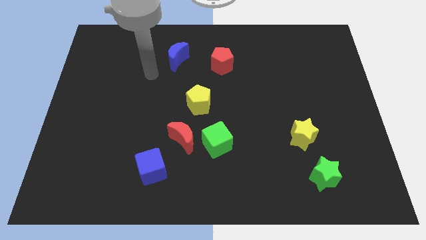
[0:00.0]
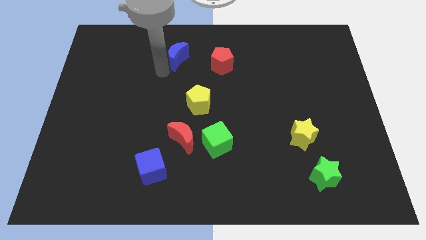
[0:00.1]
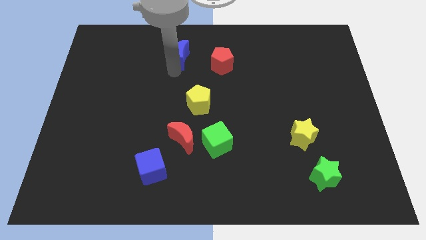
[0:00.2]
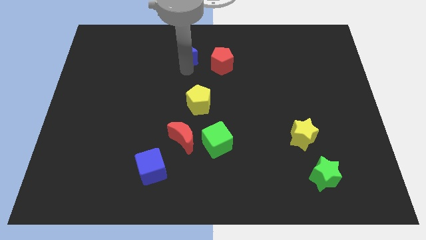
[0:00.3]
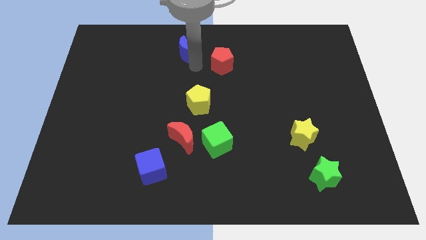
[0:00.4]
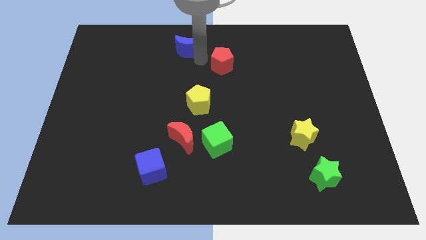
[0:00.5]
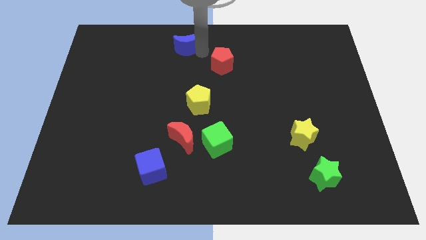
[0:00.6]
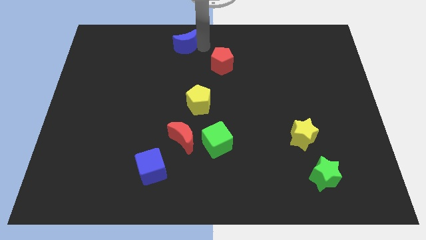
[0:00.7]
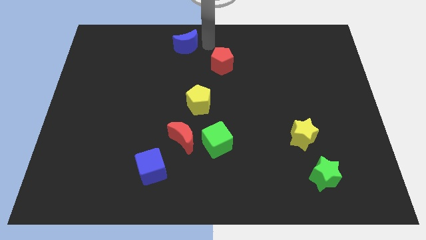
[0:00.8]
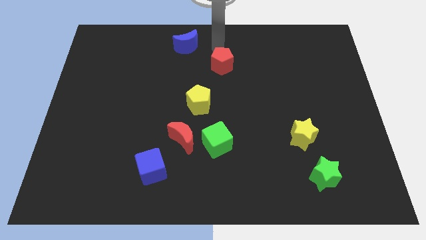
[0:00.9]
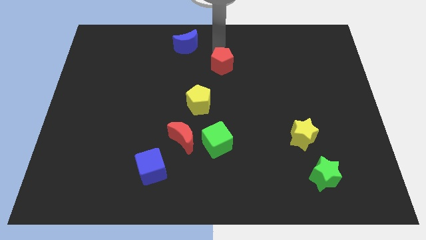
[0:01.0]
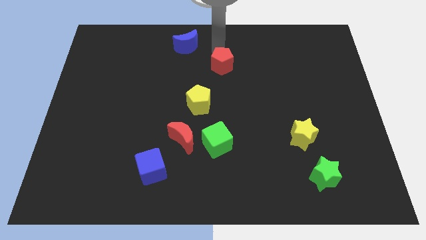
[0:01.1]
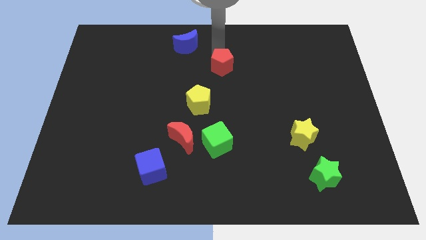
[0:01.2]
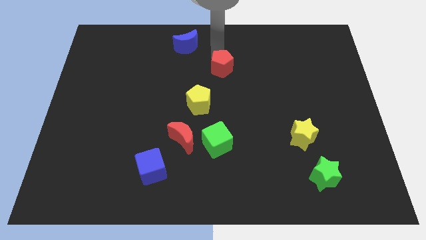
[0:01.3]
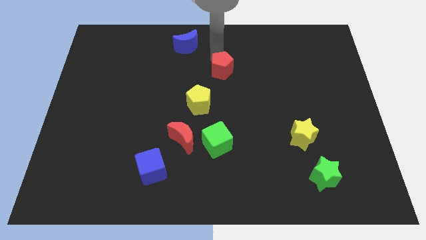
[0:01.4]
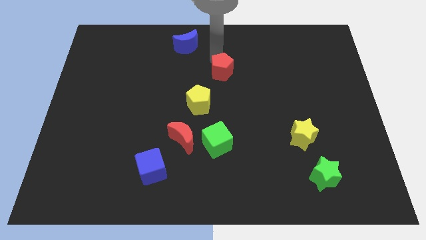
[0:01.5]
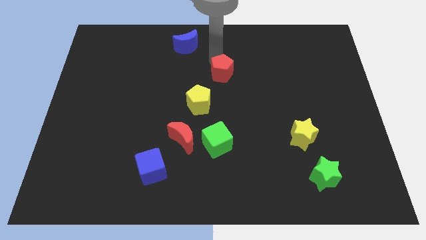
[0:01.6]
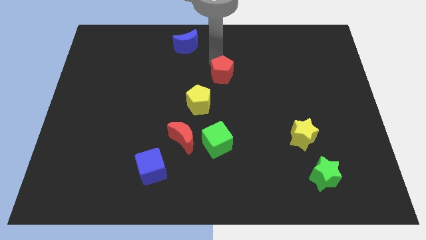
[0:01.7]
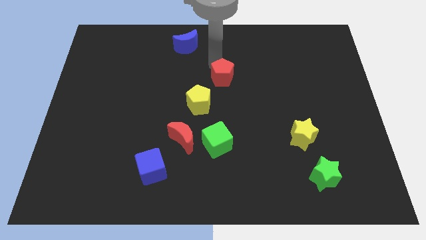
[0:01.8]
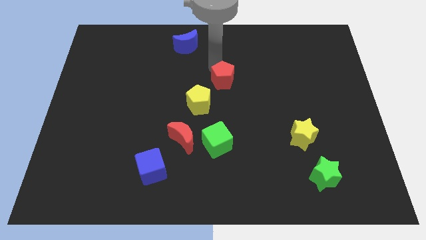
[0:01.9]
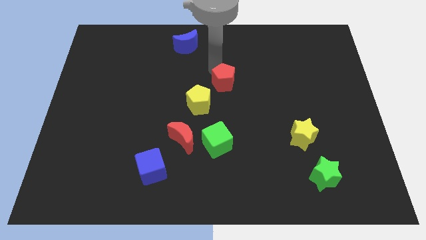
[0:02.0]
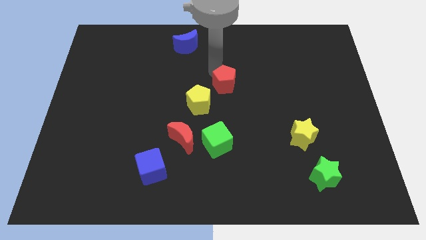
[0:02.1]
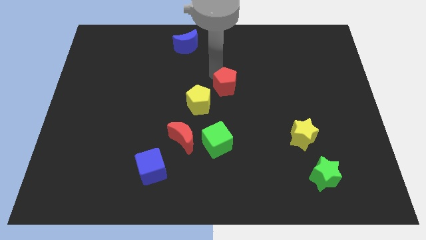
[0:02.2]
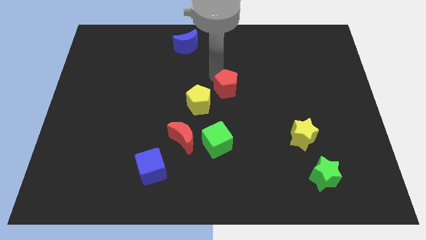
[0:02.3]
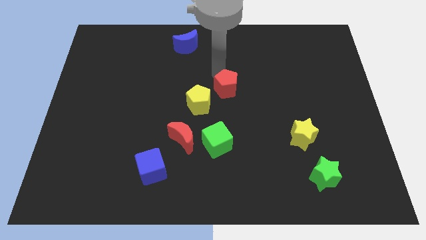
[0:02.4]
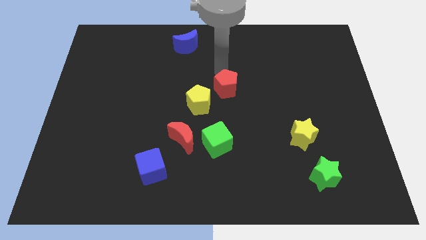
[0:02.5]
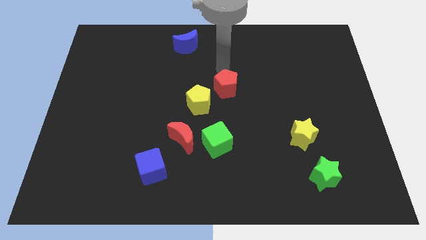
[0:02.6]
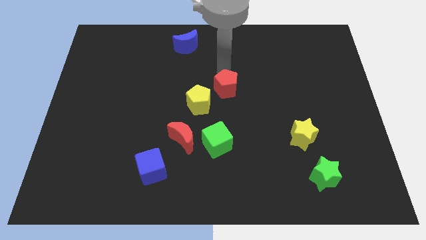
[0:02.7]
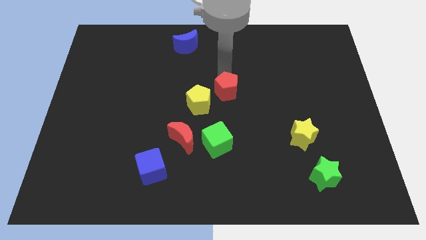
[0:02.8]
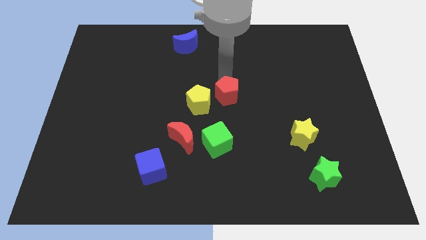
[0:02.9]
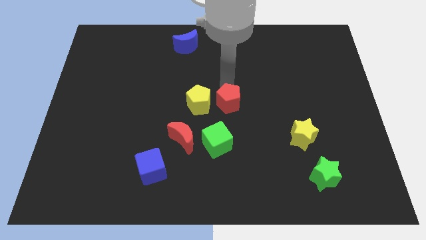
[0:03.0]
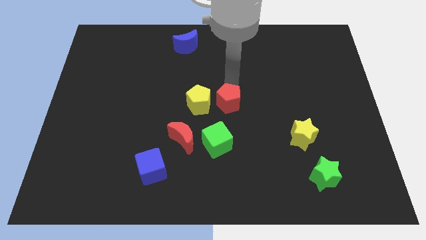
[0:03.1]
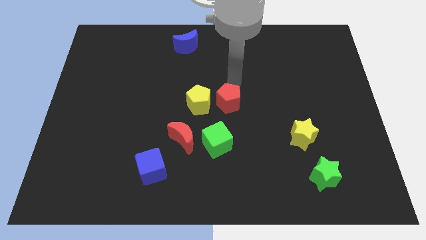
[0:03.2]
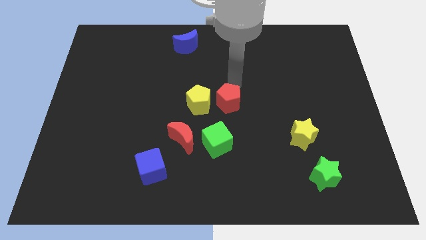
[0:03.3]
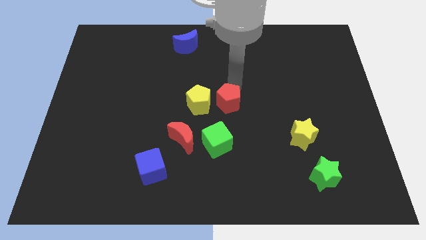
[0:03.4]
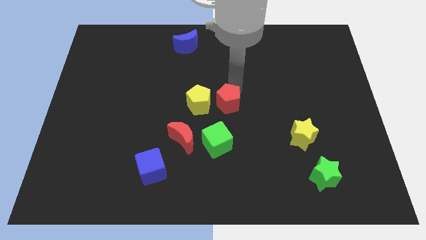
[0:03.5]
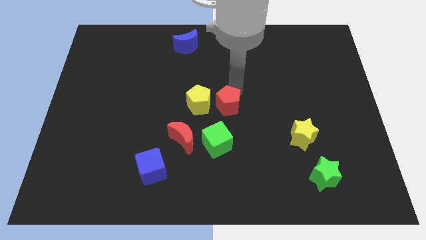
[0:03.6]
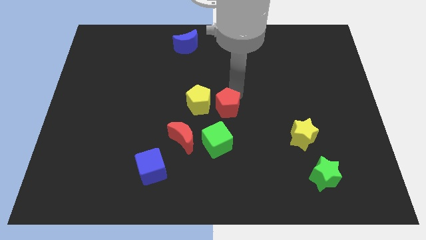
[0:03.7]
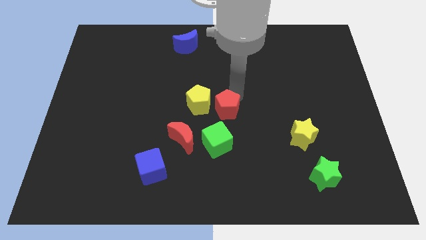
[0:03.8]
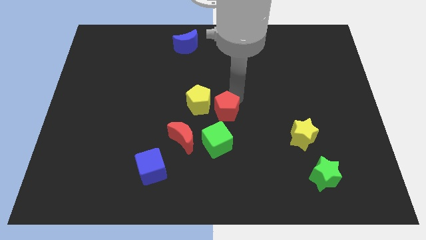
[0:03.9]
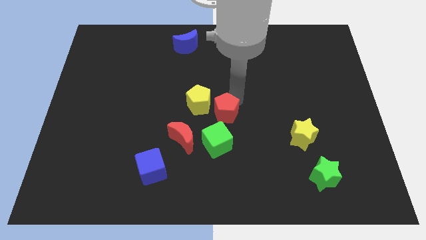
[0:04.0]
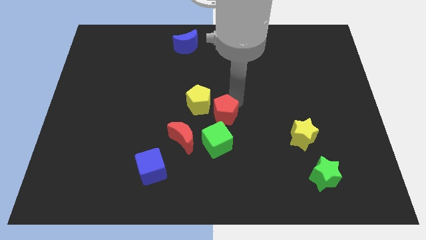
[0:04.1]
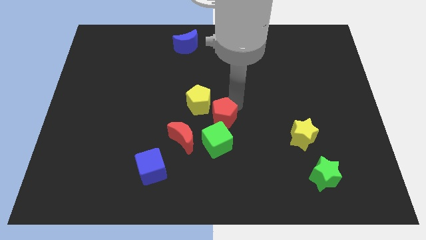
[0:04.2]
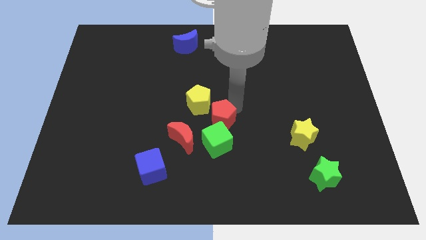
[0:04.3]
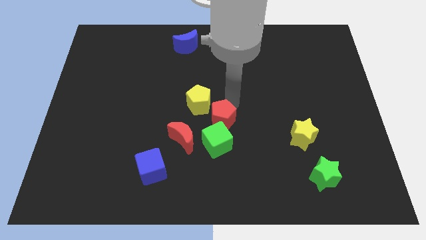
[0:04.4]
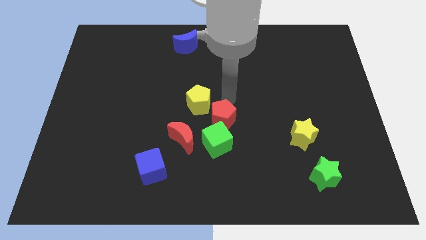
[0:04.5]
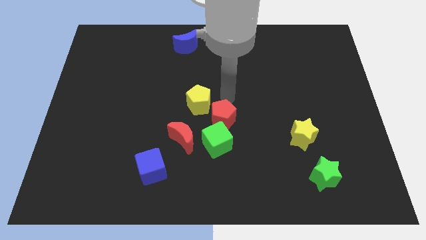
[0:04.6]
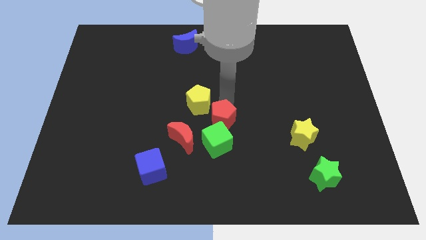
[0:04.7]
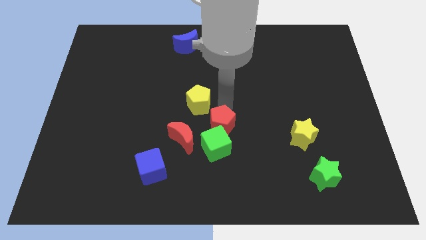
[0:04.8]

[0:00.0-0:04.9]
slide the red pentagon towards the green cube

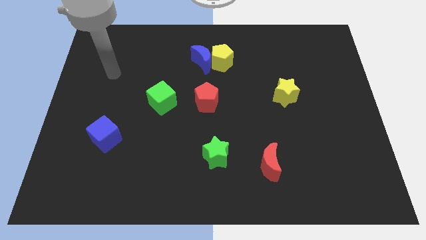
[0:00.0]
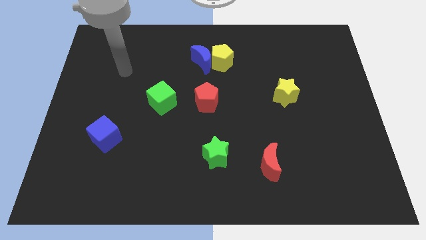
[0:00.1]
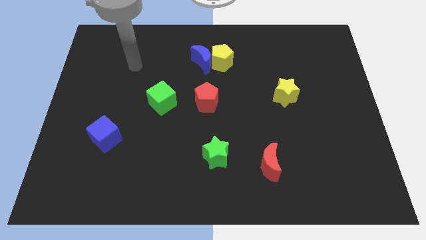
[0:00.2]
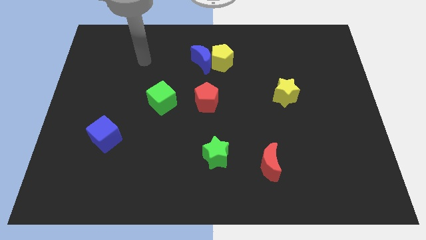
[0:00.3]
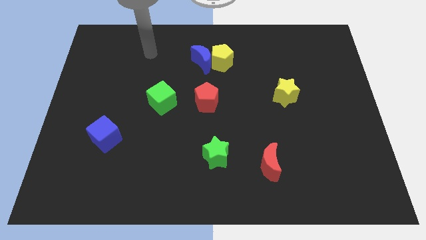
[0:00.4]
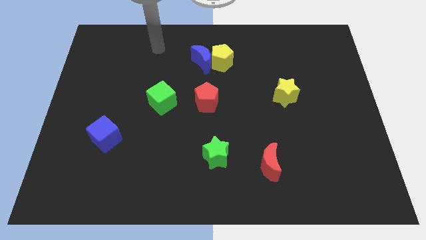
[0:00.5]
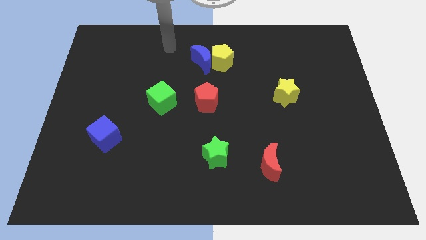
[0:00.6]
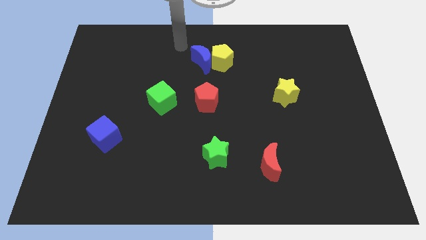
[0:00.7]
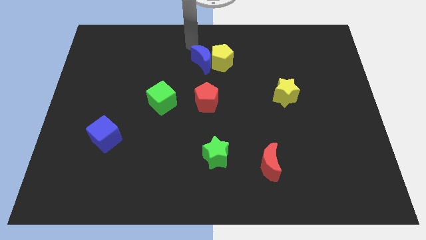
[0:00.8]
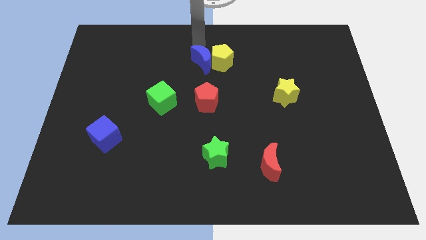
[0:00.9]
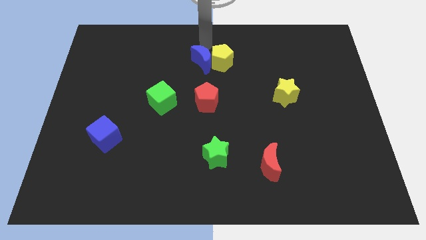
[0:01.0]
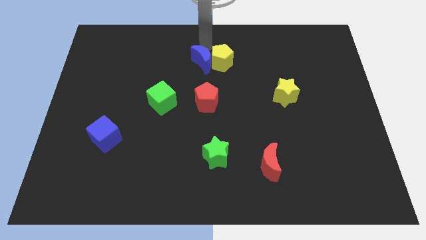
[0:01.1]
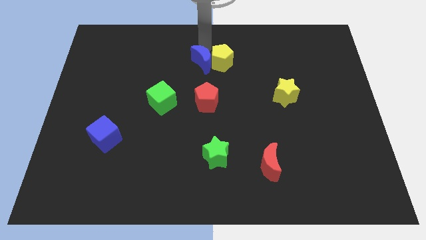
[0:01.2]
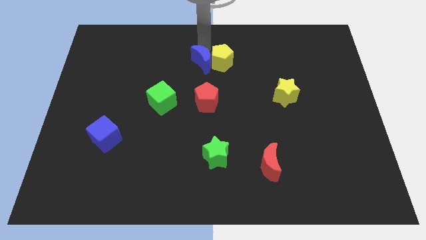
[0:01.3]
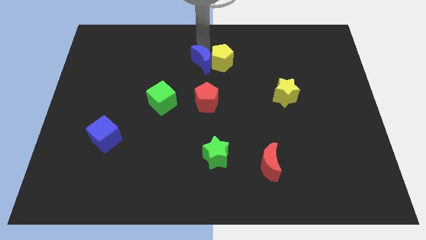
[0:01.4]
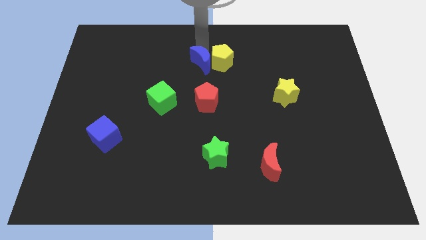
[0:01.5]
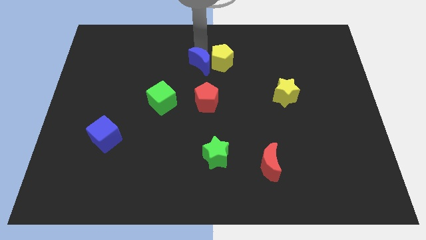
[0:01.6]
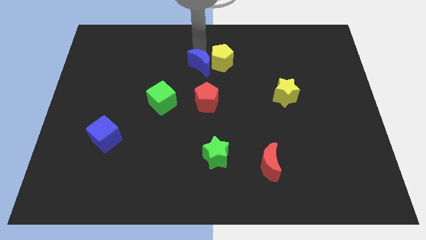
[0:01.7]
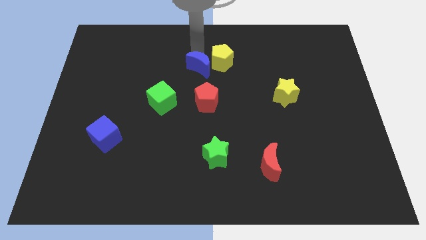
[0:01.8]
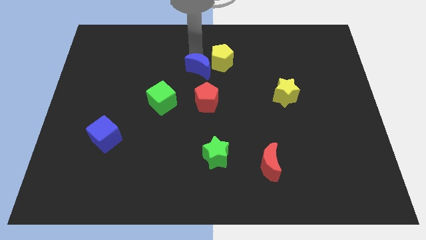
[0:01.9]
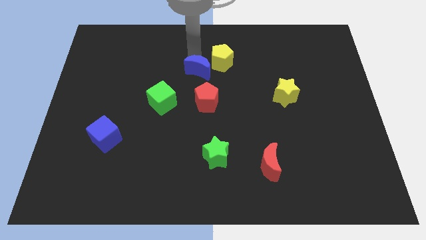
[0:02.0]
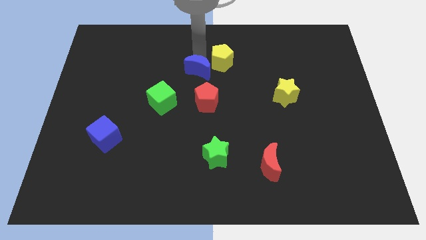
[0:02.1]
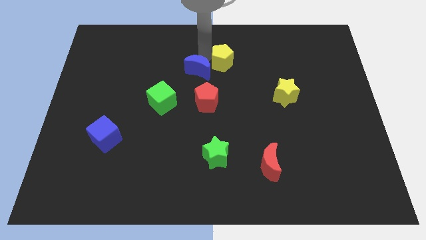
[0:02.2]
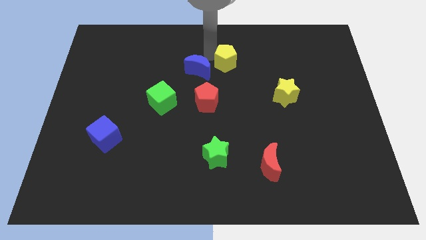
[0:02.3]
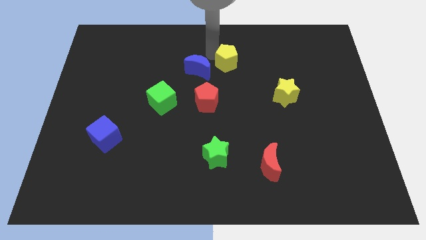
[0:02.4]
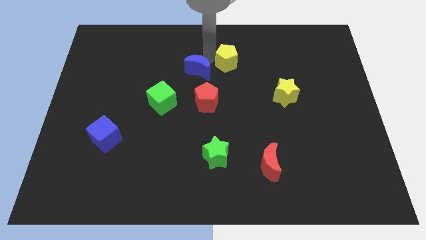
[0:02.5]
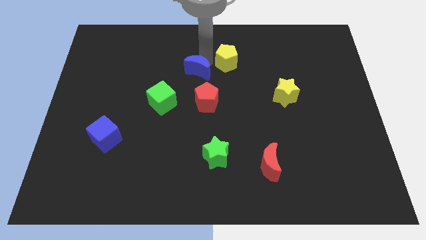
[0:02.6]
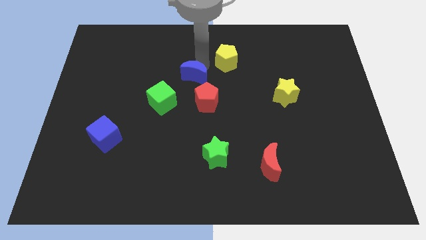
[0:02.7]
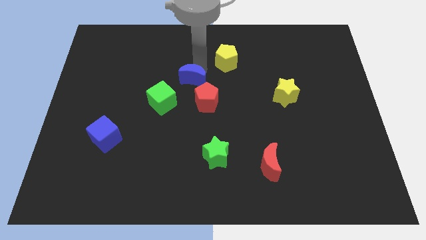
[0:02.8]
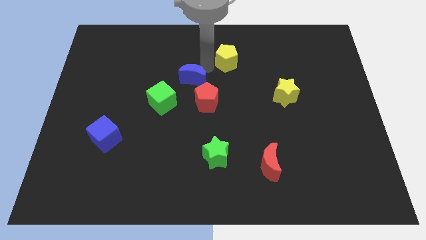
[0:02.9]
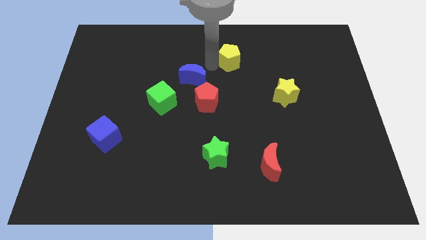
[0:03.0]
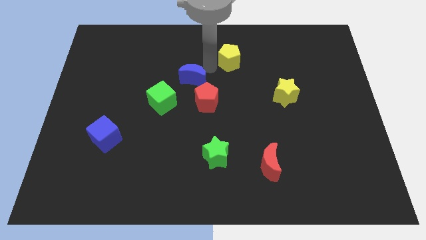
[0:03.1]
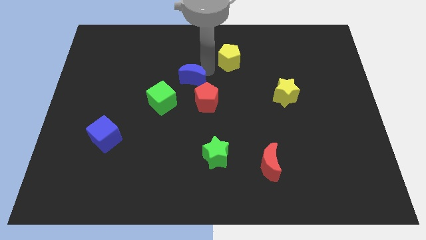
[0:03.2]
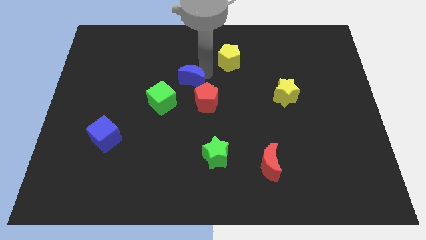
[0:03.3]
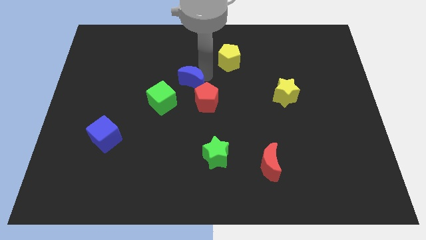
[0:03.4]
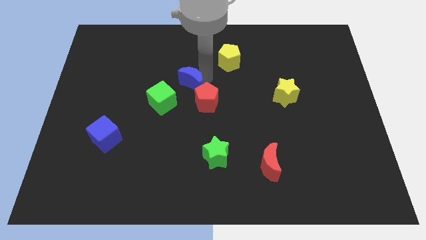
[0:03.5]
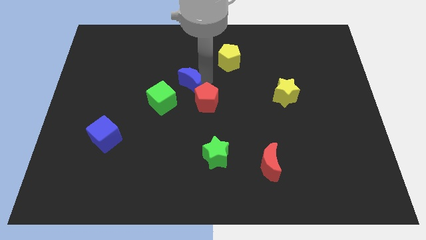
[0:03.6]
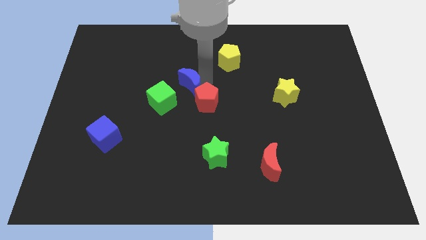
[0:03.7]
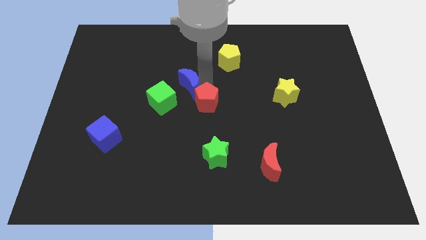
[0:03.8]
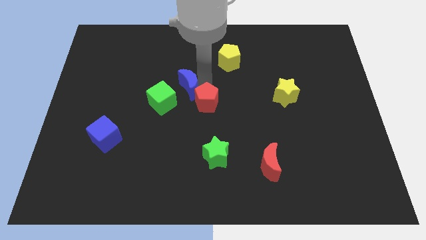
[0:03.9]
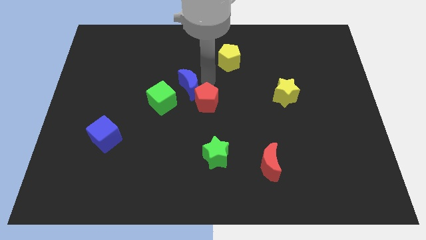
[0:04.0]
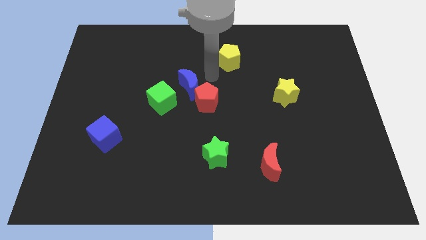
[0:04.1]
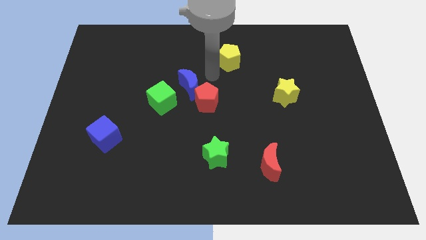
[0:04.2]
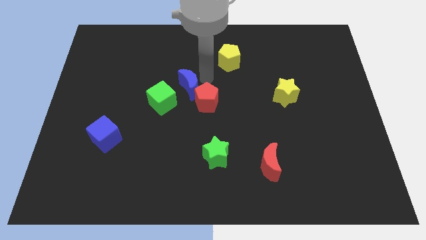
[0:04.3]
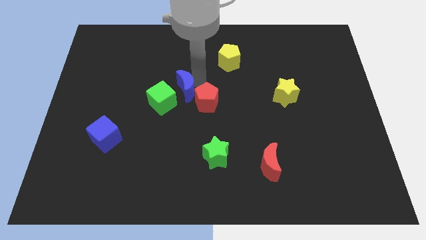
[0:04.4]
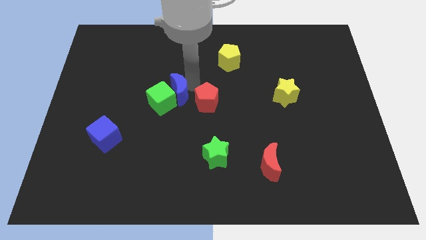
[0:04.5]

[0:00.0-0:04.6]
put the blue moon to the green cube
